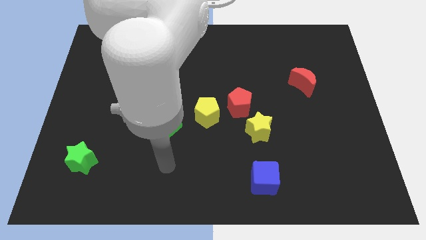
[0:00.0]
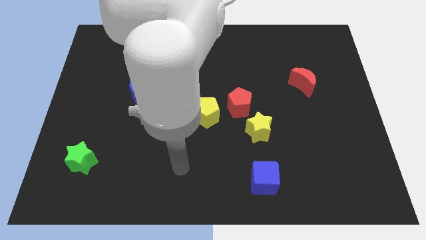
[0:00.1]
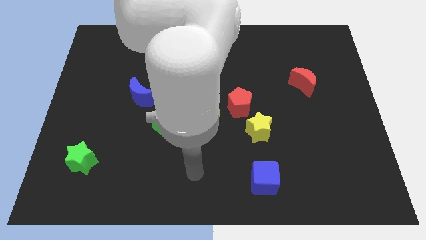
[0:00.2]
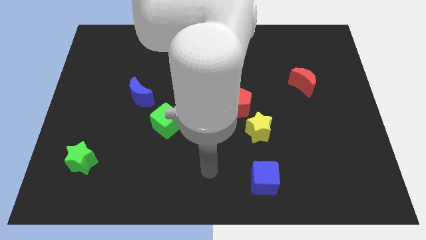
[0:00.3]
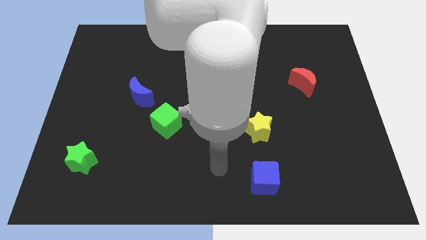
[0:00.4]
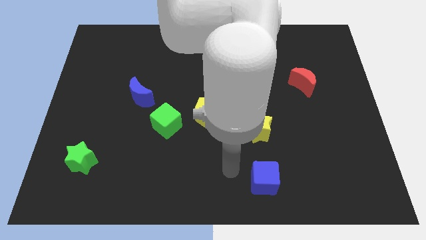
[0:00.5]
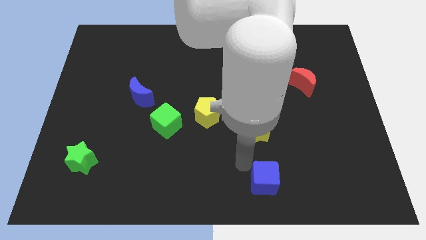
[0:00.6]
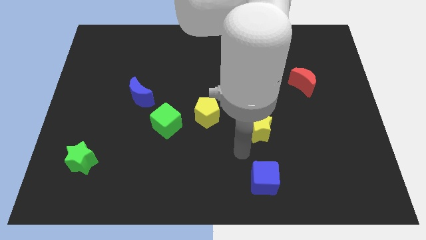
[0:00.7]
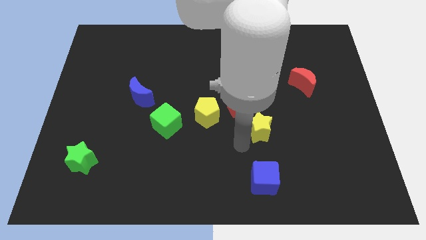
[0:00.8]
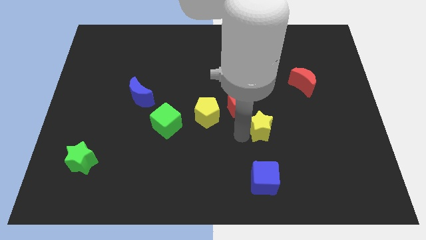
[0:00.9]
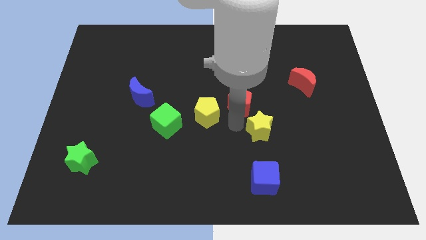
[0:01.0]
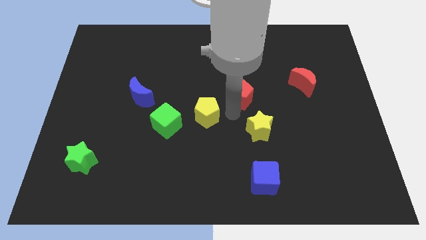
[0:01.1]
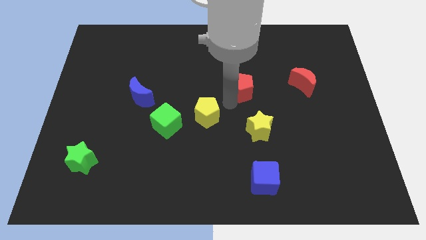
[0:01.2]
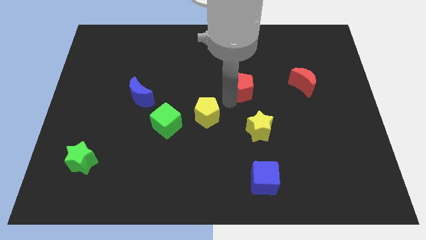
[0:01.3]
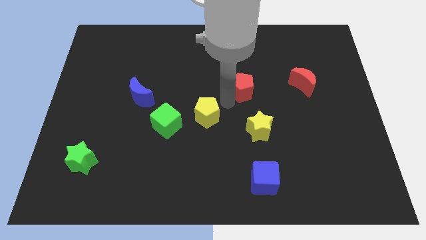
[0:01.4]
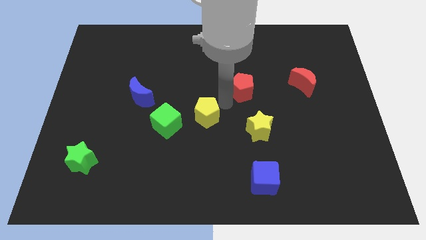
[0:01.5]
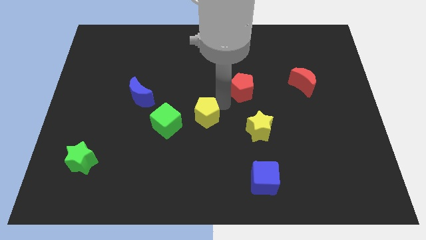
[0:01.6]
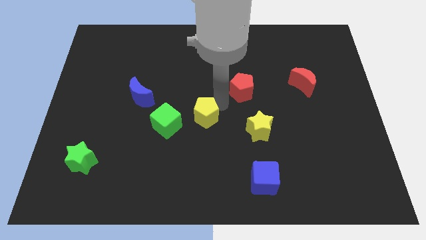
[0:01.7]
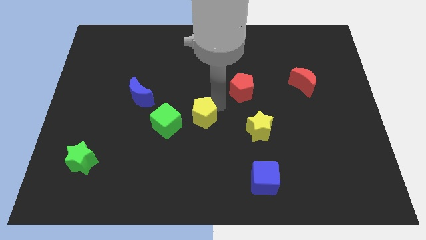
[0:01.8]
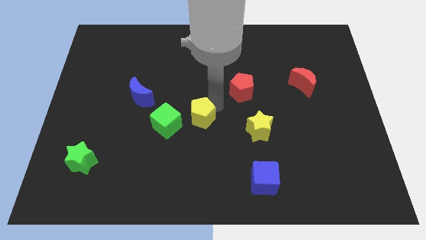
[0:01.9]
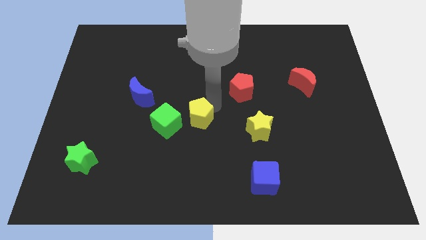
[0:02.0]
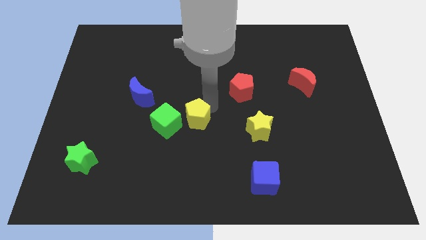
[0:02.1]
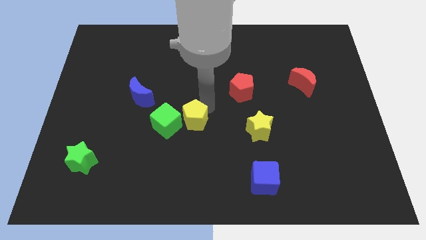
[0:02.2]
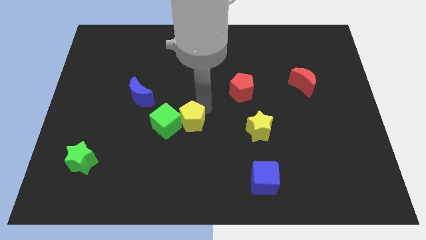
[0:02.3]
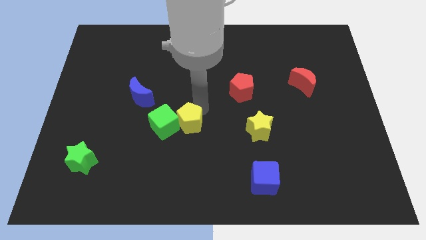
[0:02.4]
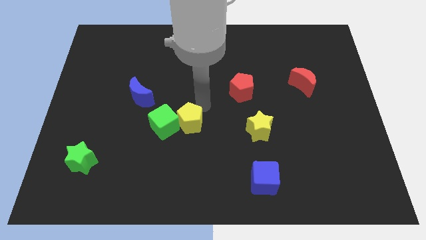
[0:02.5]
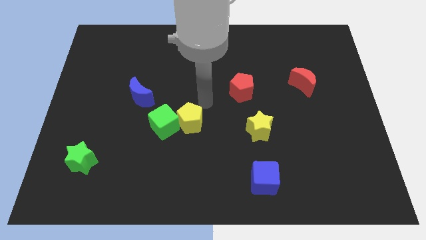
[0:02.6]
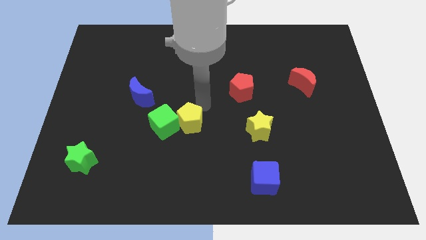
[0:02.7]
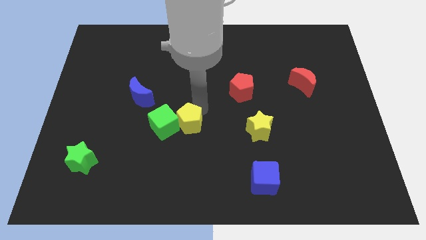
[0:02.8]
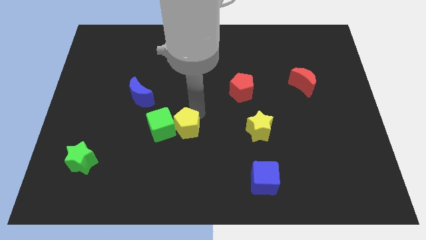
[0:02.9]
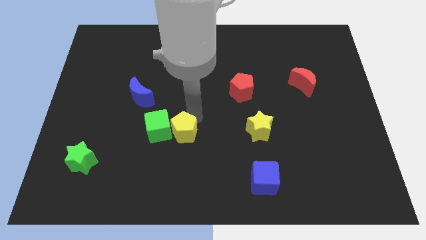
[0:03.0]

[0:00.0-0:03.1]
move the yellow pentagon down and then to the left a little bit

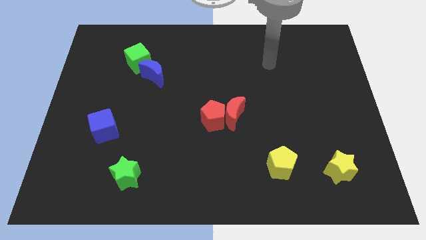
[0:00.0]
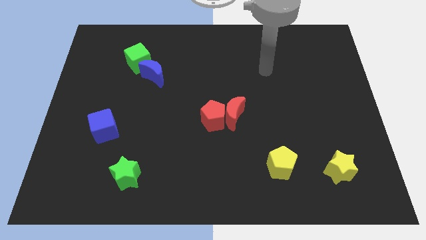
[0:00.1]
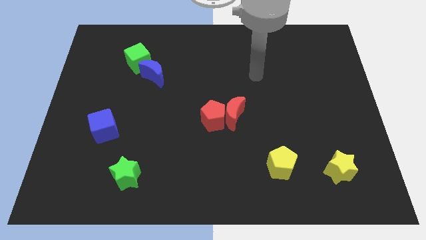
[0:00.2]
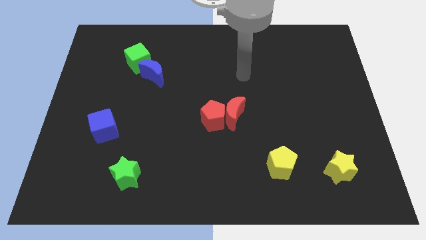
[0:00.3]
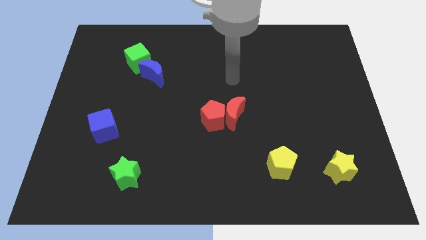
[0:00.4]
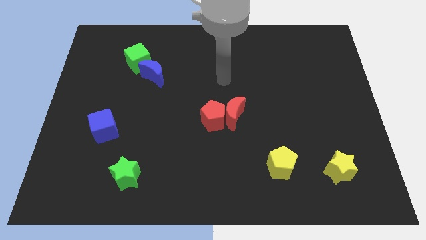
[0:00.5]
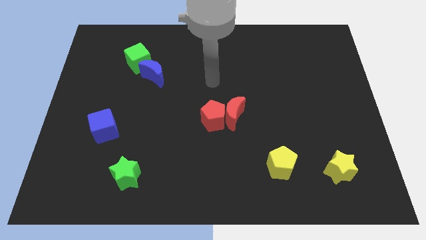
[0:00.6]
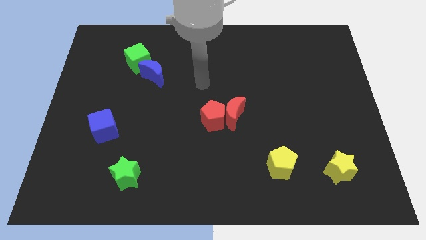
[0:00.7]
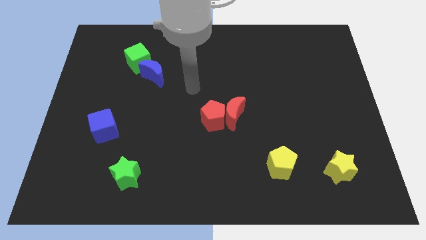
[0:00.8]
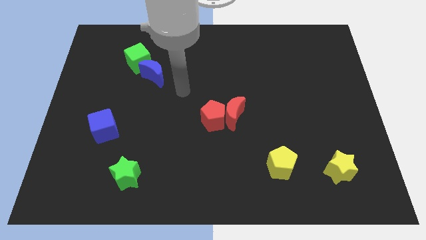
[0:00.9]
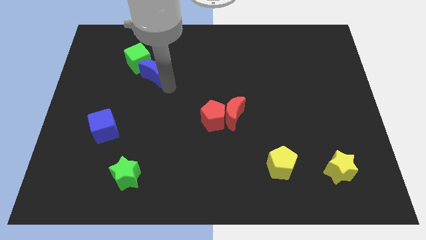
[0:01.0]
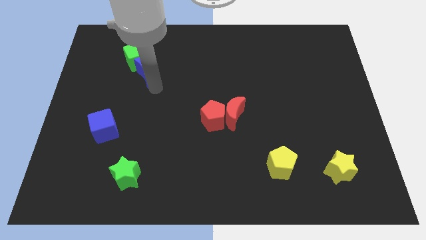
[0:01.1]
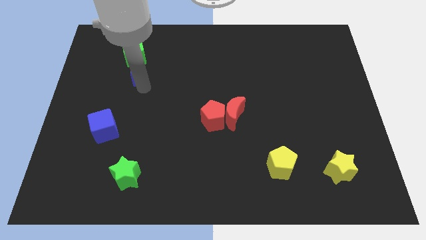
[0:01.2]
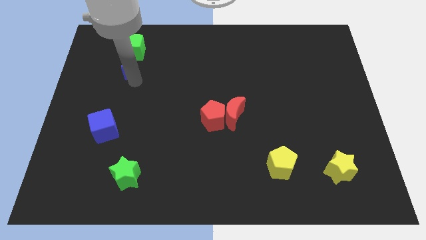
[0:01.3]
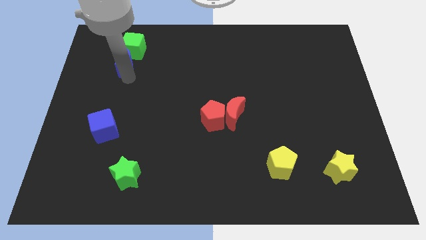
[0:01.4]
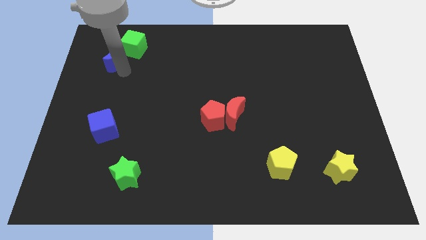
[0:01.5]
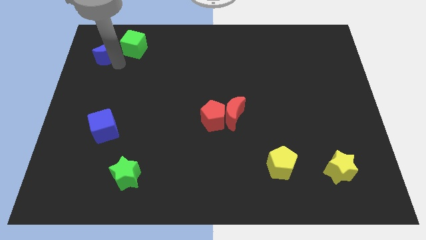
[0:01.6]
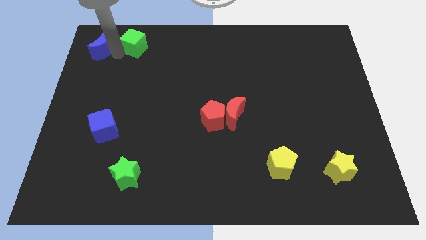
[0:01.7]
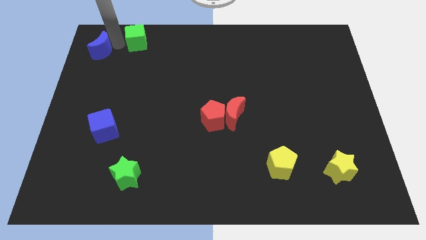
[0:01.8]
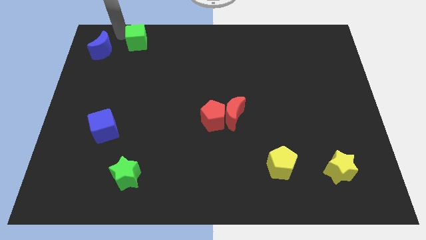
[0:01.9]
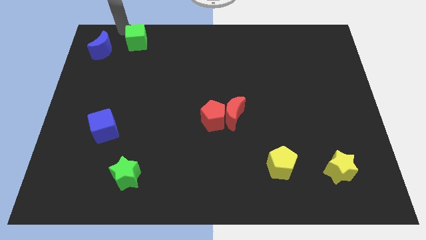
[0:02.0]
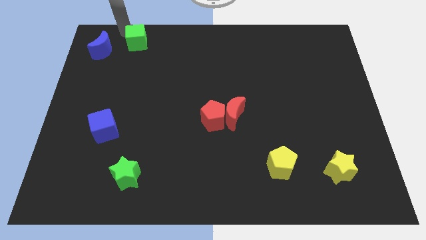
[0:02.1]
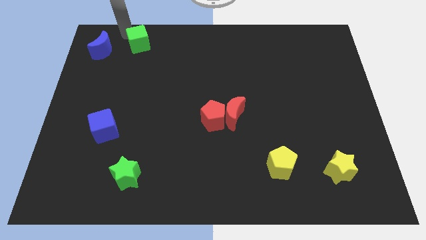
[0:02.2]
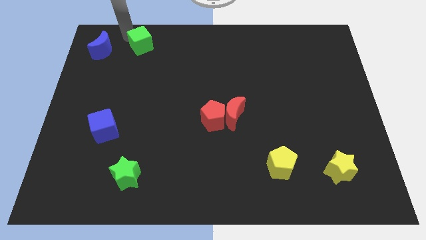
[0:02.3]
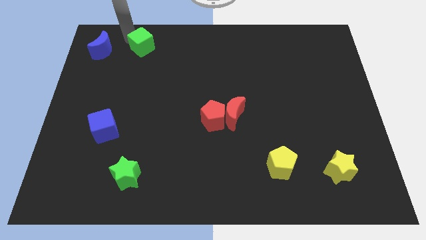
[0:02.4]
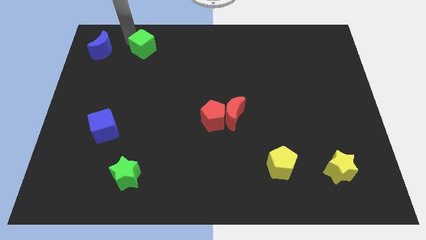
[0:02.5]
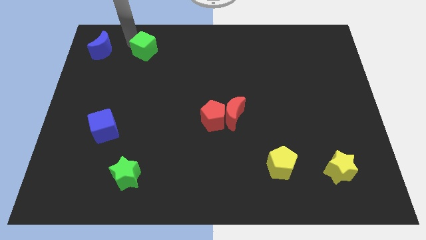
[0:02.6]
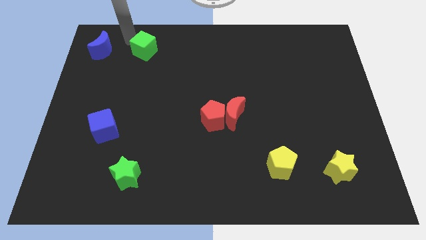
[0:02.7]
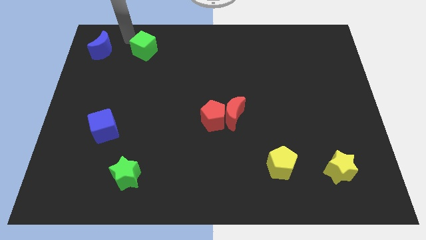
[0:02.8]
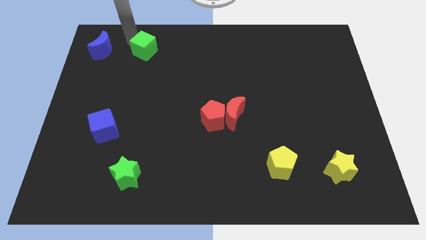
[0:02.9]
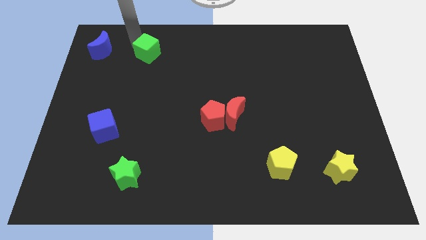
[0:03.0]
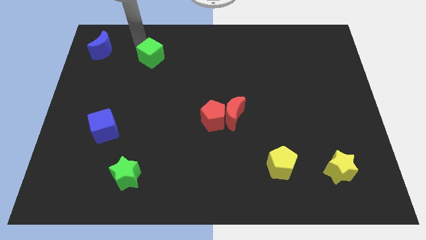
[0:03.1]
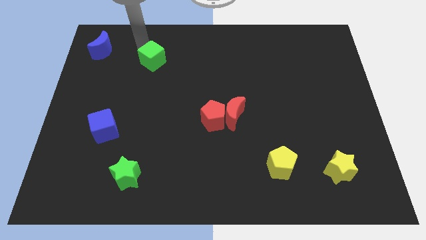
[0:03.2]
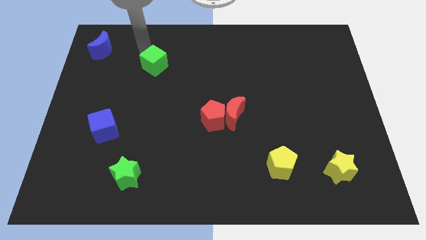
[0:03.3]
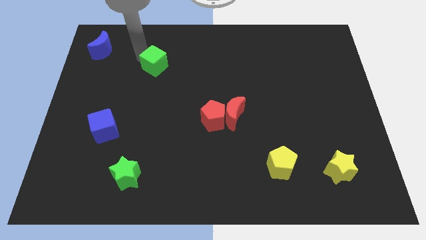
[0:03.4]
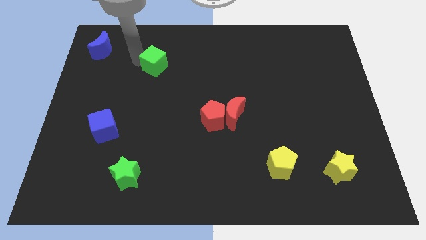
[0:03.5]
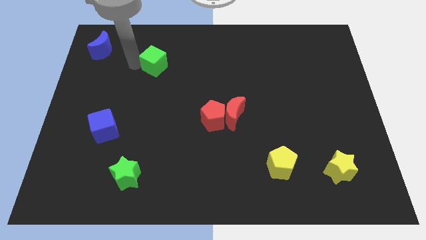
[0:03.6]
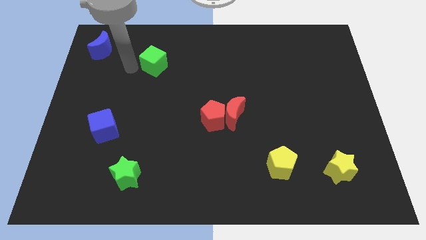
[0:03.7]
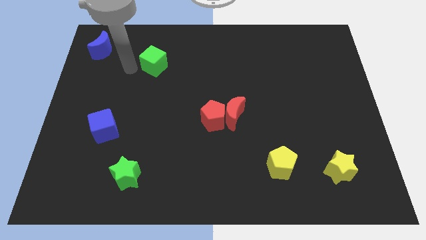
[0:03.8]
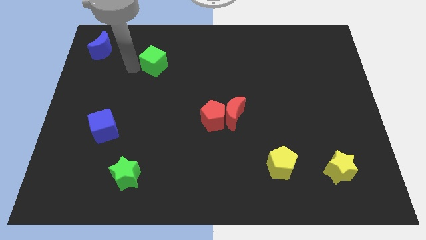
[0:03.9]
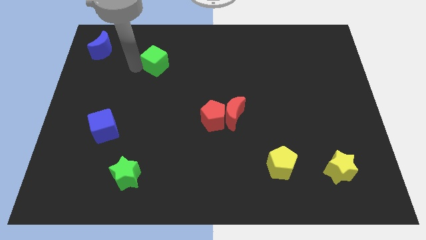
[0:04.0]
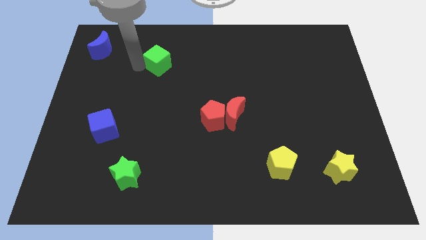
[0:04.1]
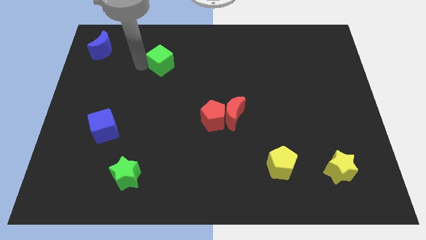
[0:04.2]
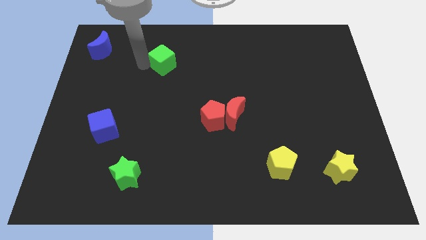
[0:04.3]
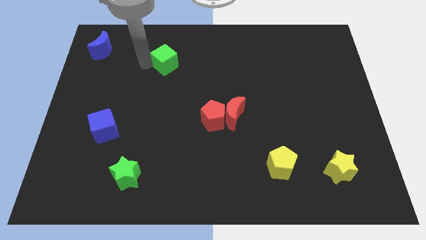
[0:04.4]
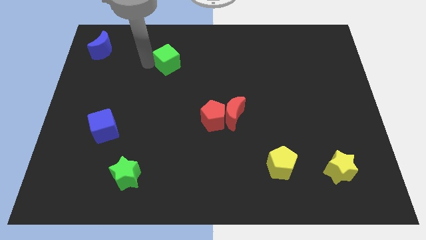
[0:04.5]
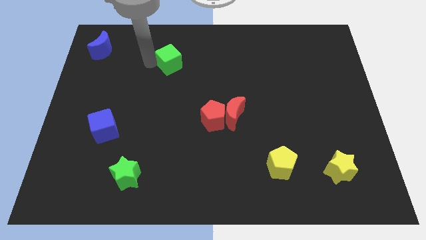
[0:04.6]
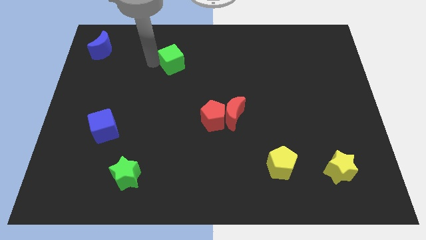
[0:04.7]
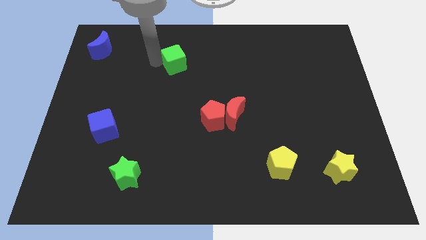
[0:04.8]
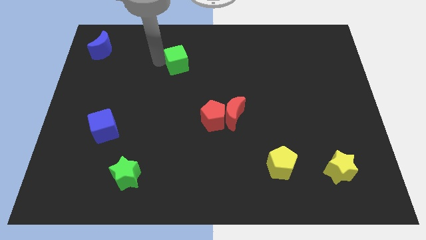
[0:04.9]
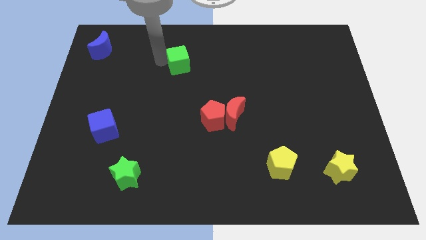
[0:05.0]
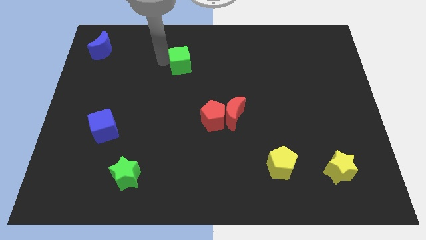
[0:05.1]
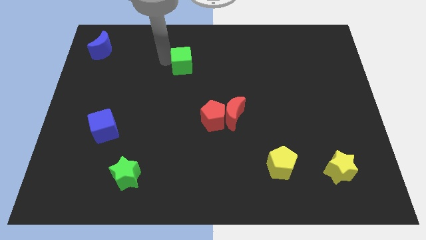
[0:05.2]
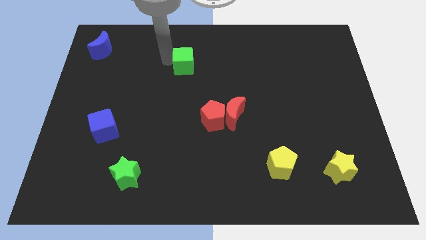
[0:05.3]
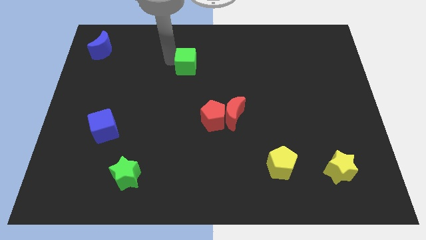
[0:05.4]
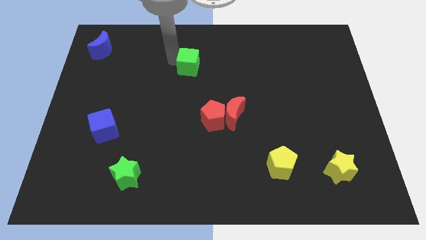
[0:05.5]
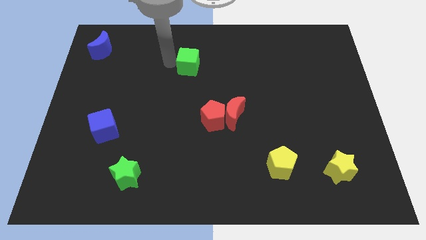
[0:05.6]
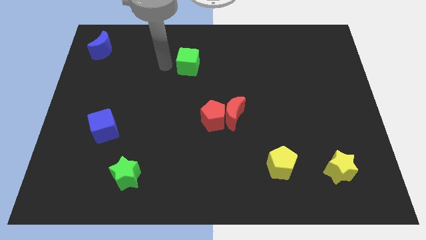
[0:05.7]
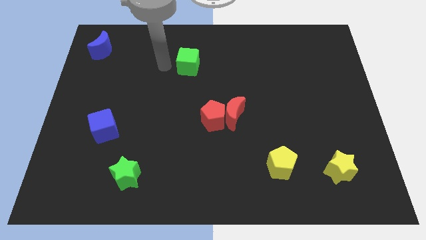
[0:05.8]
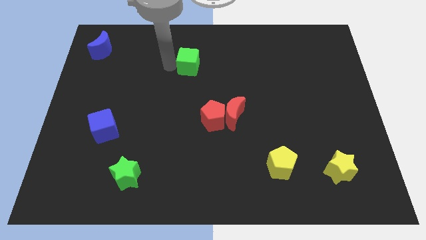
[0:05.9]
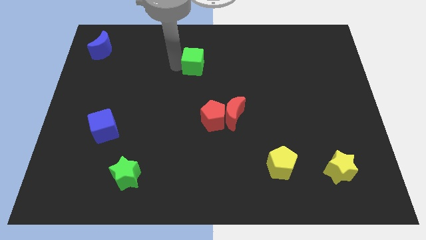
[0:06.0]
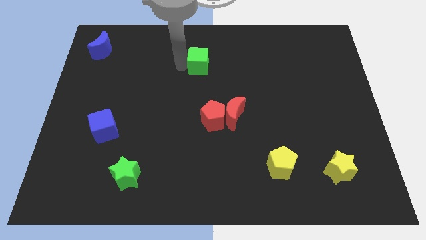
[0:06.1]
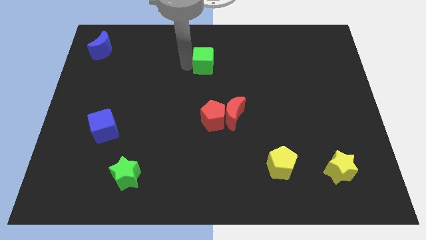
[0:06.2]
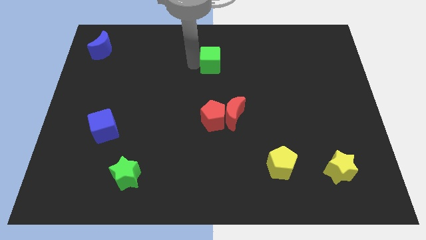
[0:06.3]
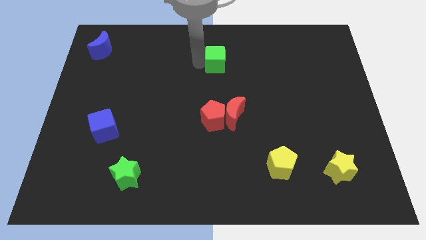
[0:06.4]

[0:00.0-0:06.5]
move the green cube right
